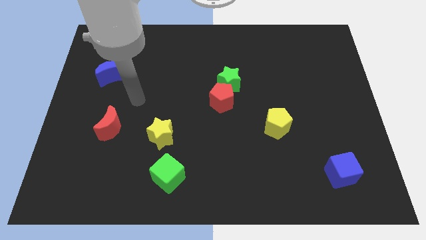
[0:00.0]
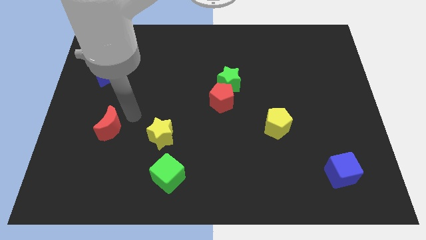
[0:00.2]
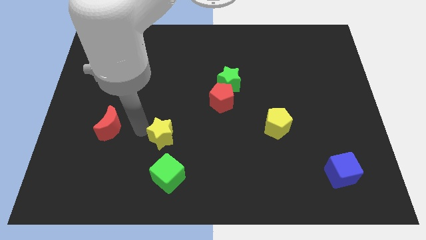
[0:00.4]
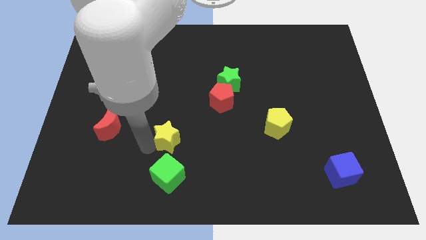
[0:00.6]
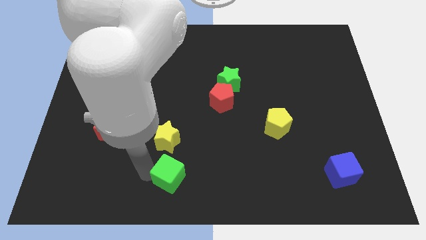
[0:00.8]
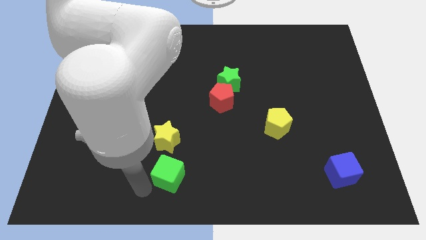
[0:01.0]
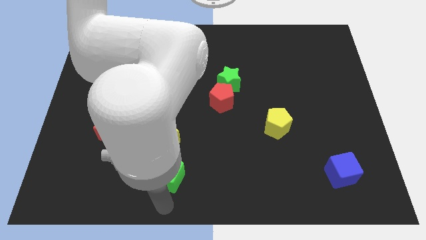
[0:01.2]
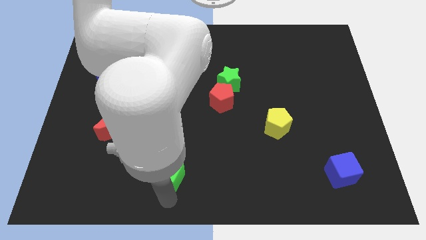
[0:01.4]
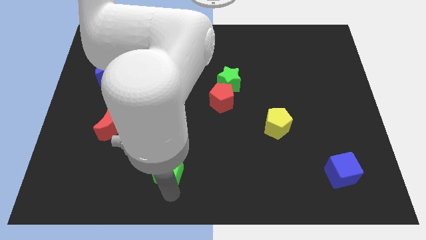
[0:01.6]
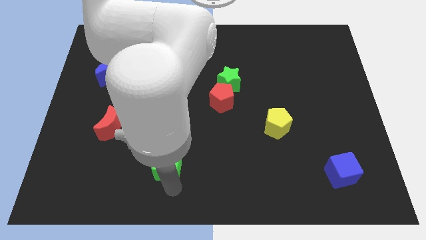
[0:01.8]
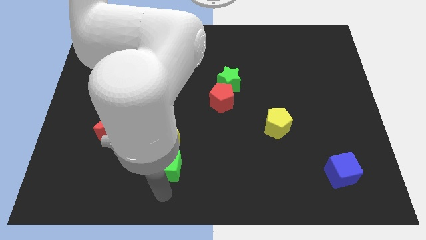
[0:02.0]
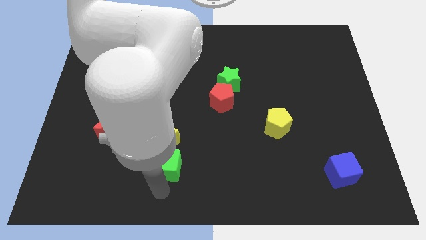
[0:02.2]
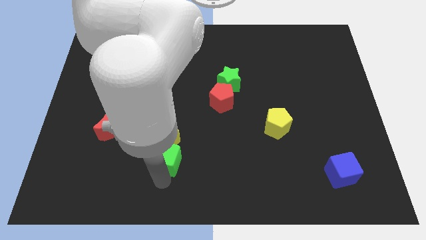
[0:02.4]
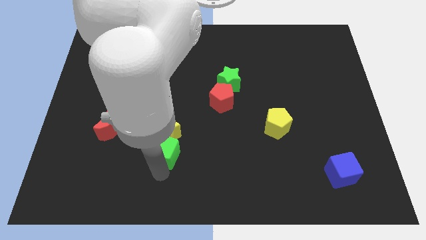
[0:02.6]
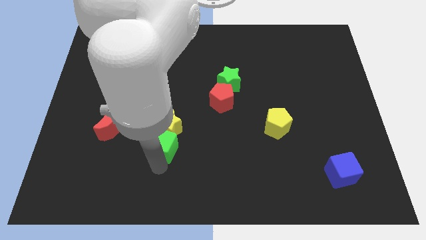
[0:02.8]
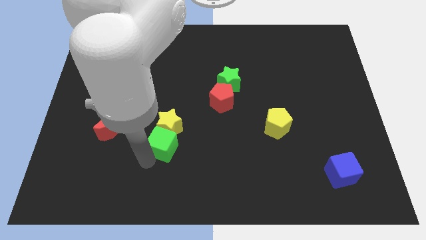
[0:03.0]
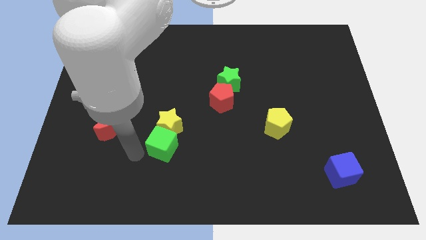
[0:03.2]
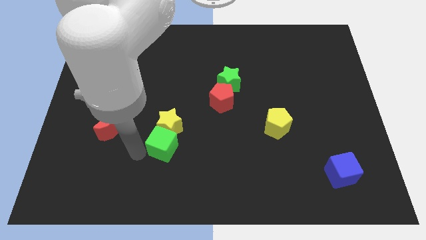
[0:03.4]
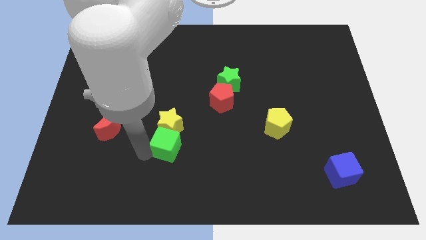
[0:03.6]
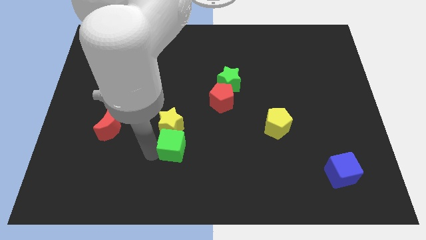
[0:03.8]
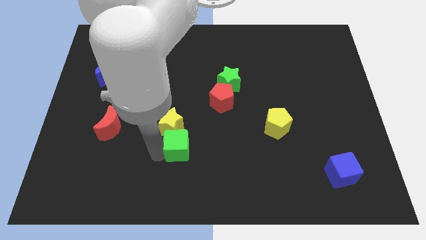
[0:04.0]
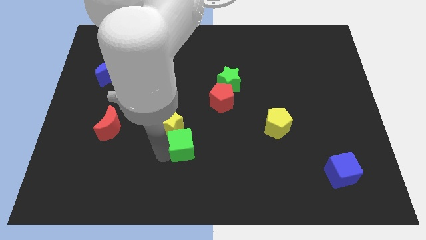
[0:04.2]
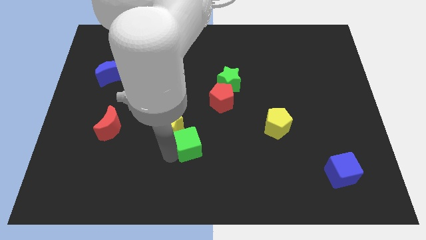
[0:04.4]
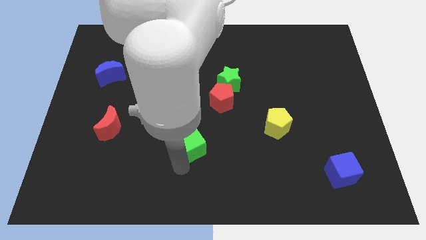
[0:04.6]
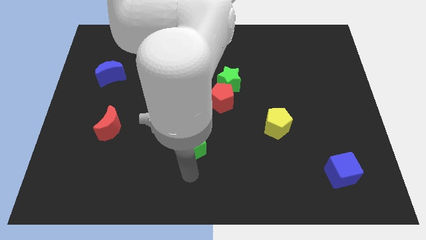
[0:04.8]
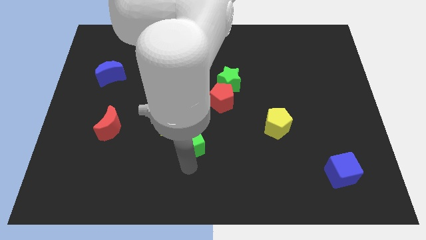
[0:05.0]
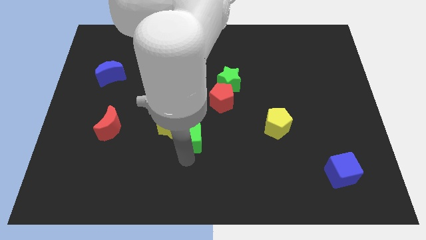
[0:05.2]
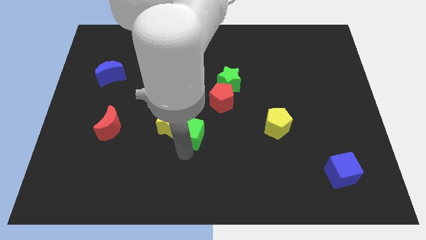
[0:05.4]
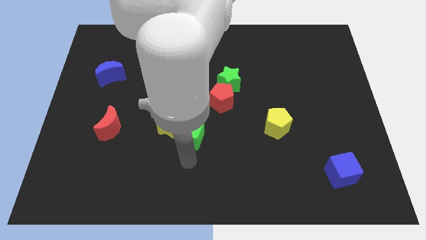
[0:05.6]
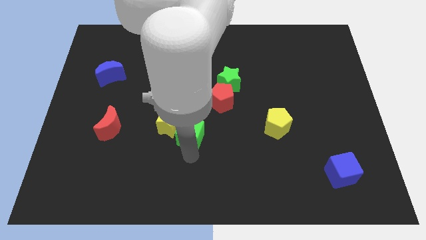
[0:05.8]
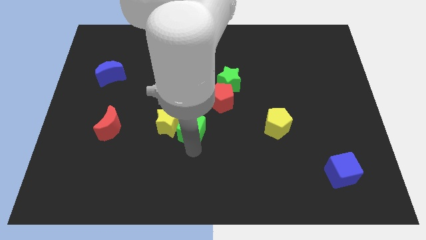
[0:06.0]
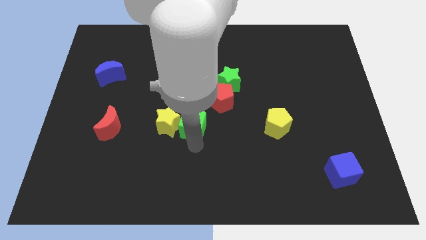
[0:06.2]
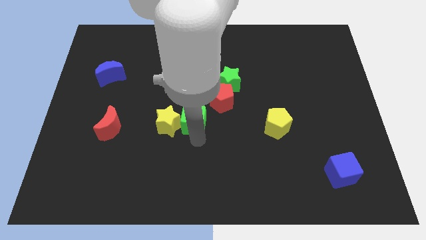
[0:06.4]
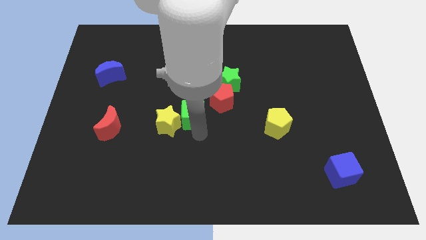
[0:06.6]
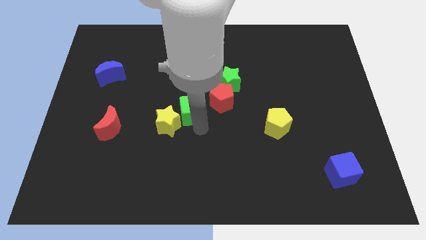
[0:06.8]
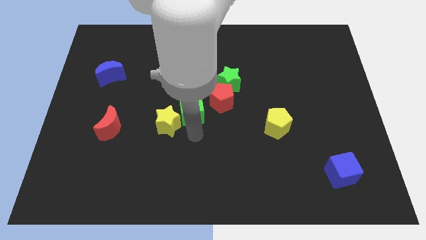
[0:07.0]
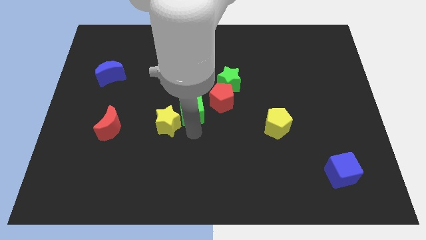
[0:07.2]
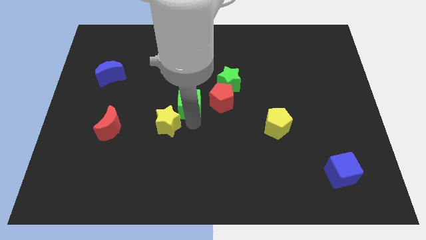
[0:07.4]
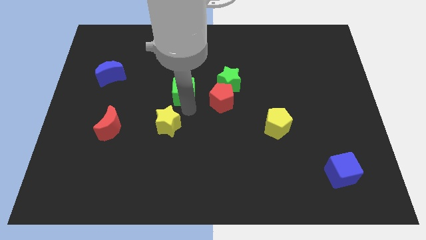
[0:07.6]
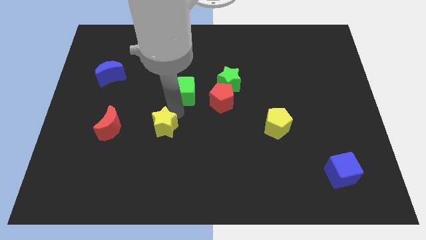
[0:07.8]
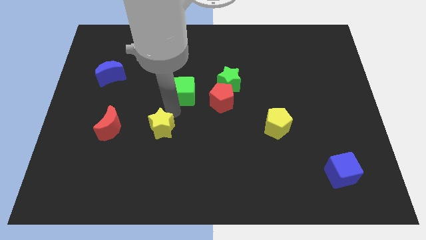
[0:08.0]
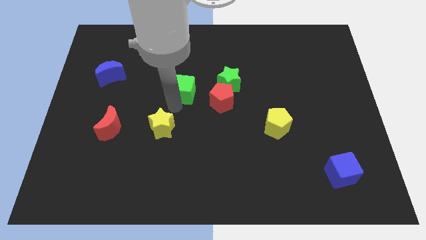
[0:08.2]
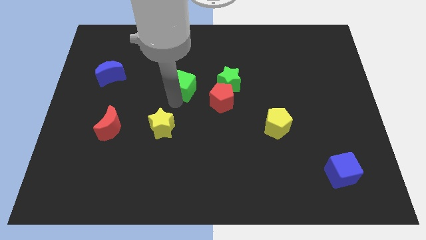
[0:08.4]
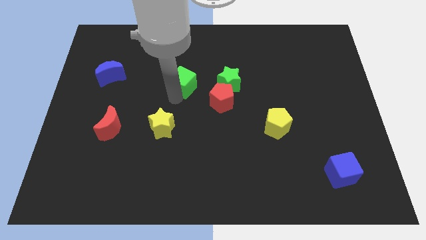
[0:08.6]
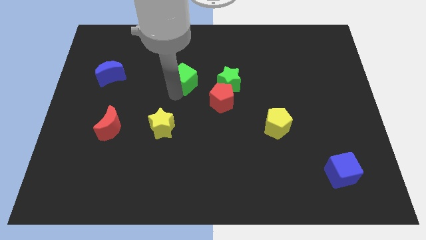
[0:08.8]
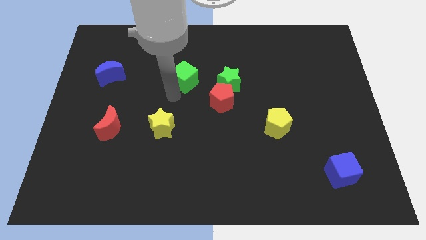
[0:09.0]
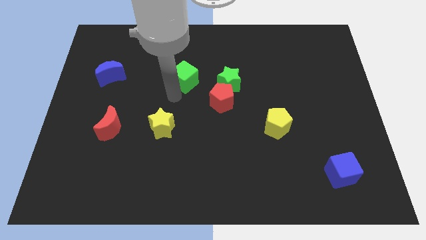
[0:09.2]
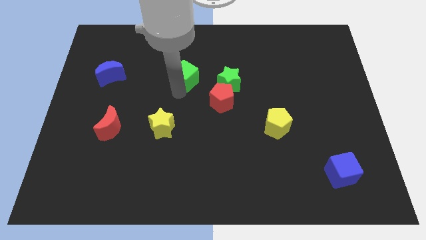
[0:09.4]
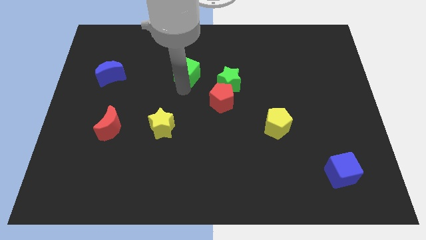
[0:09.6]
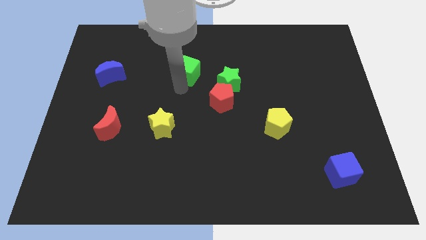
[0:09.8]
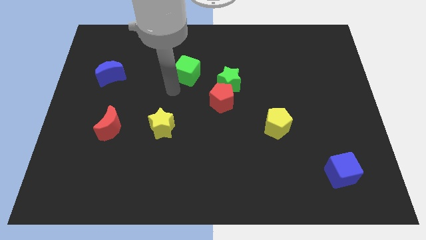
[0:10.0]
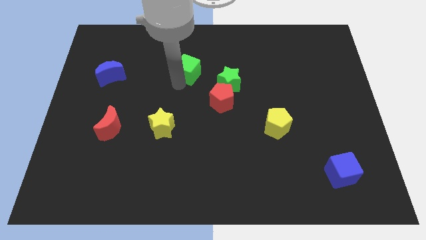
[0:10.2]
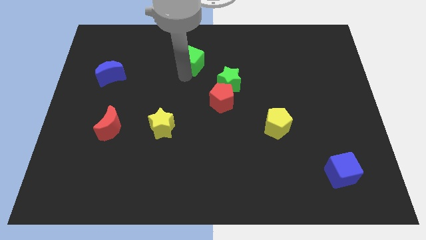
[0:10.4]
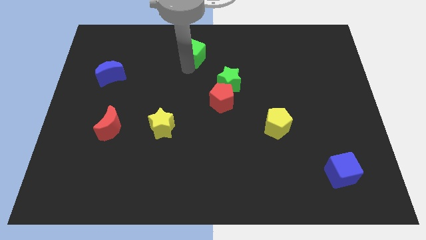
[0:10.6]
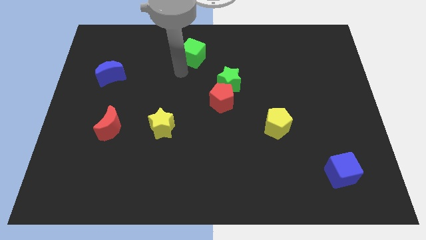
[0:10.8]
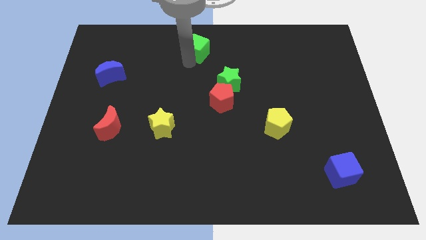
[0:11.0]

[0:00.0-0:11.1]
put the green cube to the towards your base
